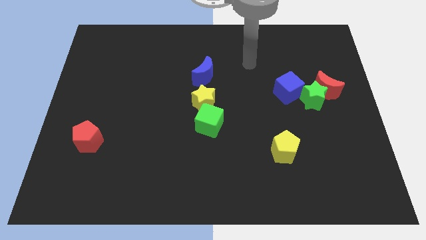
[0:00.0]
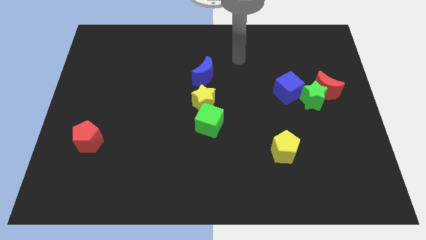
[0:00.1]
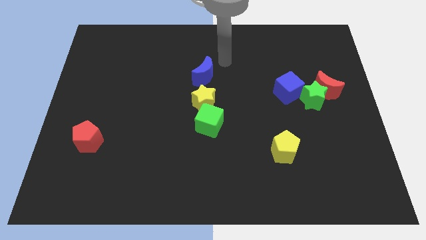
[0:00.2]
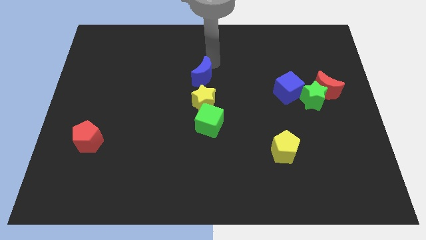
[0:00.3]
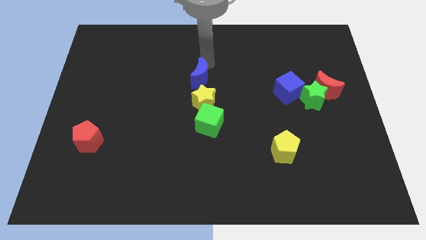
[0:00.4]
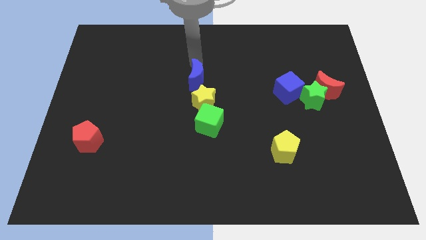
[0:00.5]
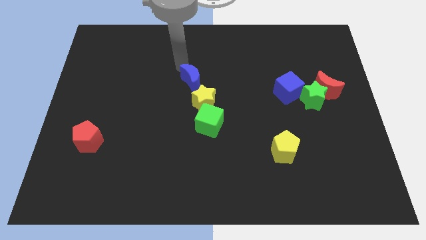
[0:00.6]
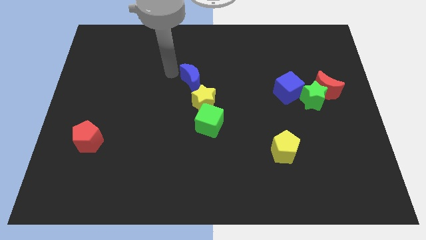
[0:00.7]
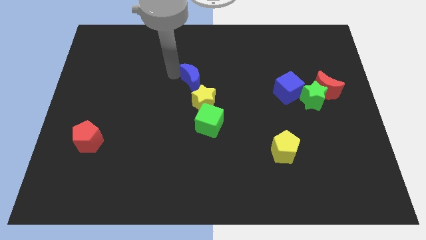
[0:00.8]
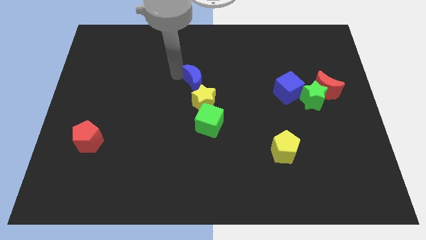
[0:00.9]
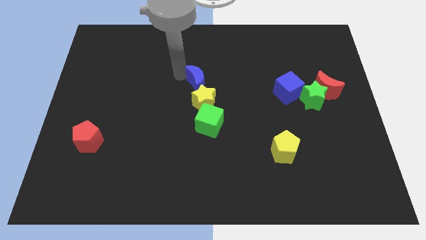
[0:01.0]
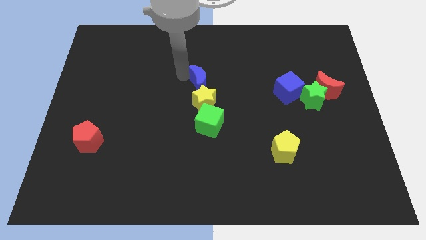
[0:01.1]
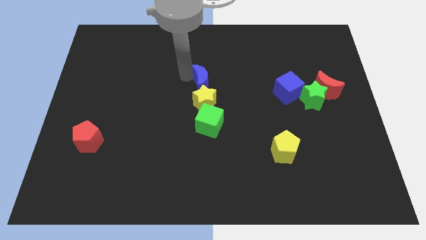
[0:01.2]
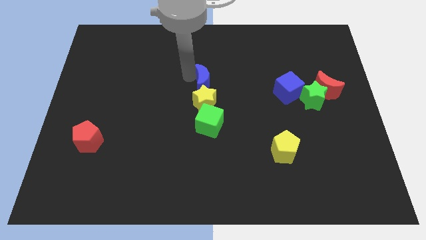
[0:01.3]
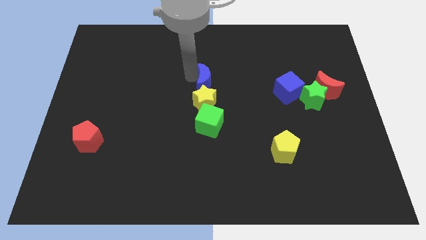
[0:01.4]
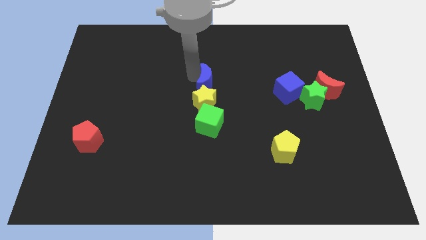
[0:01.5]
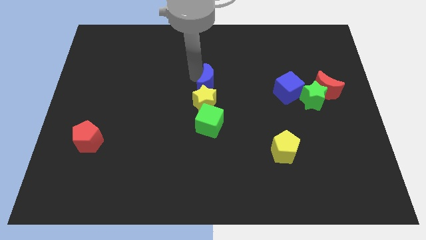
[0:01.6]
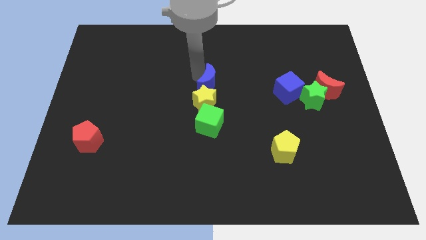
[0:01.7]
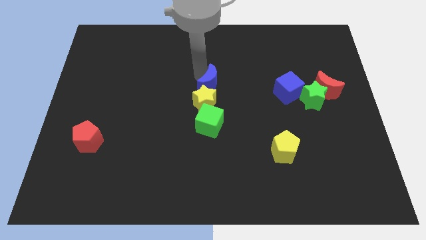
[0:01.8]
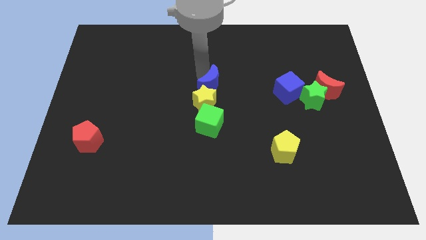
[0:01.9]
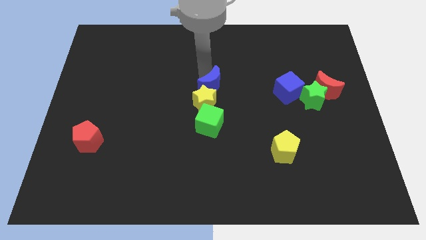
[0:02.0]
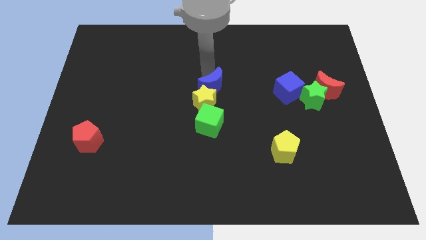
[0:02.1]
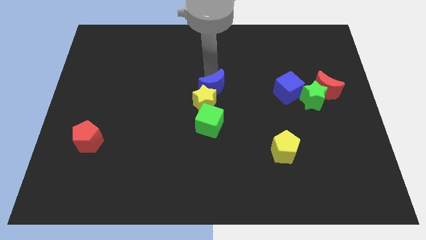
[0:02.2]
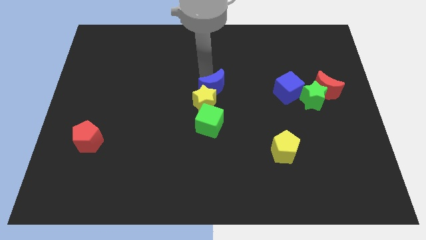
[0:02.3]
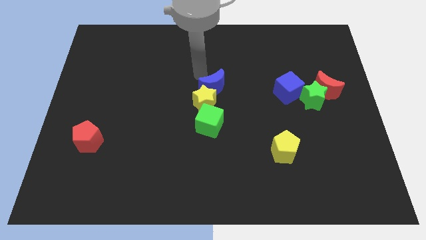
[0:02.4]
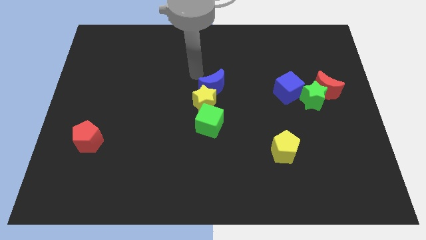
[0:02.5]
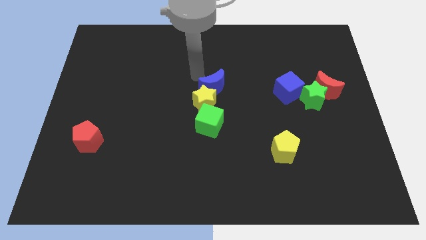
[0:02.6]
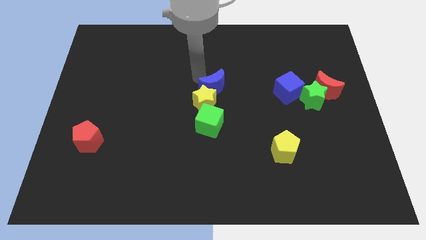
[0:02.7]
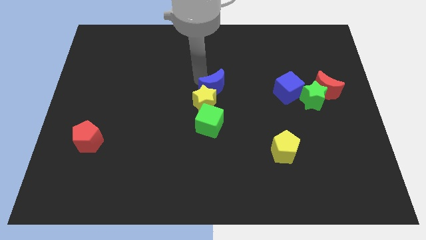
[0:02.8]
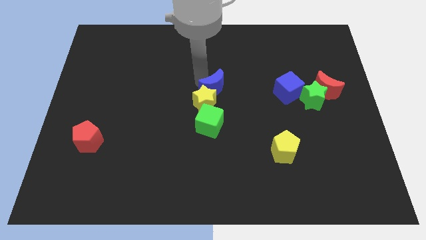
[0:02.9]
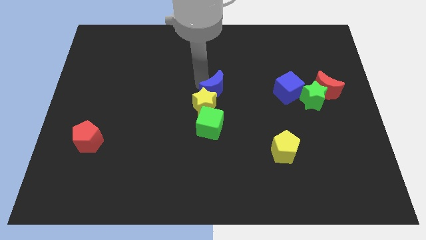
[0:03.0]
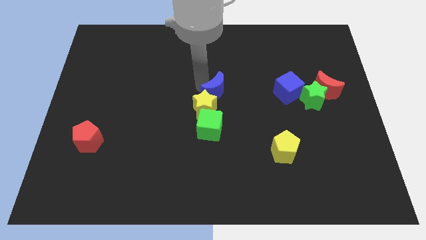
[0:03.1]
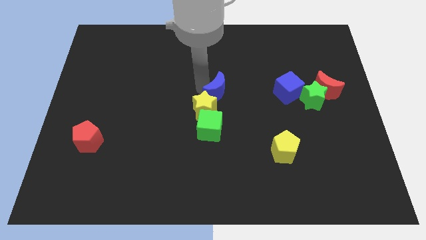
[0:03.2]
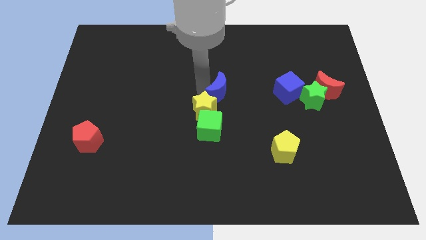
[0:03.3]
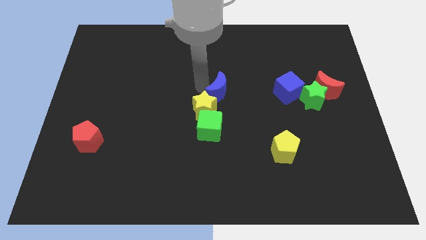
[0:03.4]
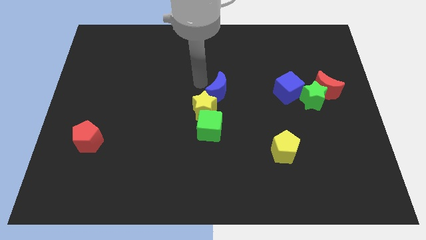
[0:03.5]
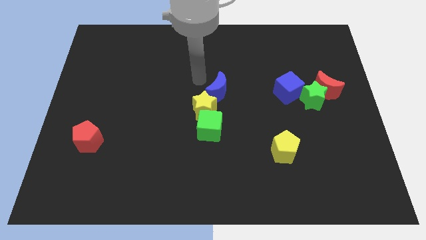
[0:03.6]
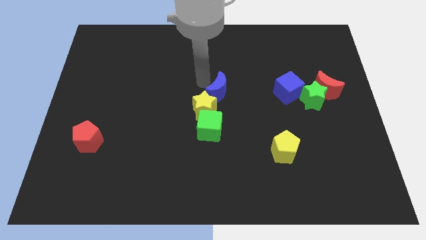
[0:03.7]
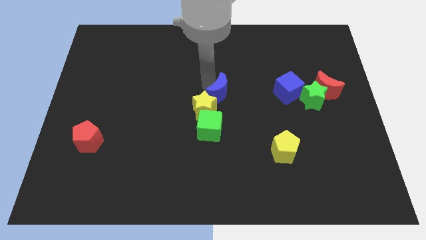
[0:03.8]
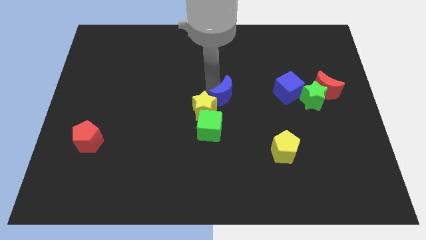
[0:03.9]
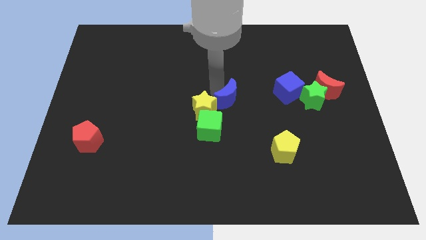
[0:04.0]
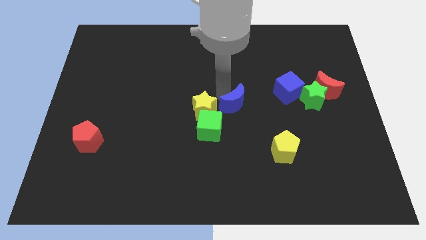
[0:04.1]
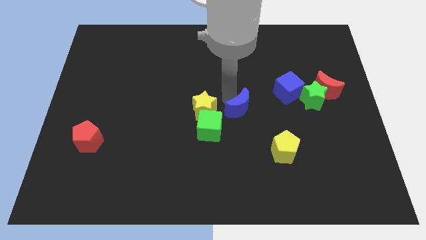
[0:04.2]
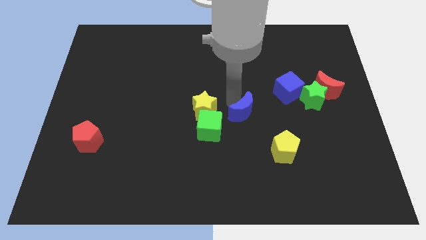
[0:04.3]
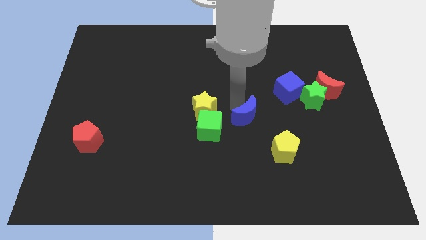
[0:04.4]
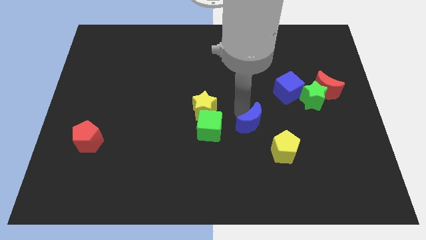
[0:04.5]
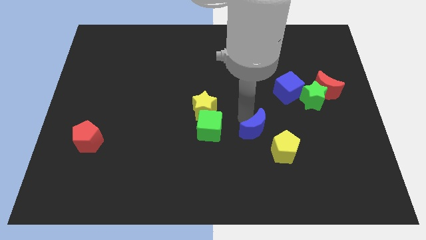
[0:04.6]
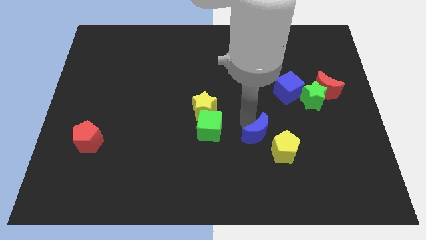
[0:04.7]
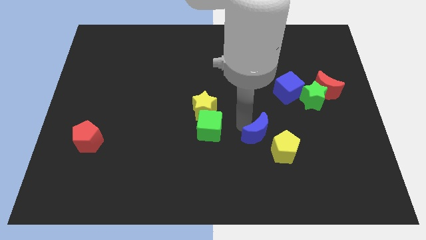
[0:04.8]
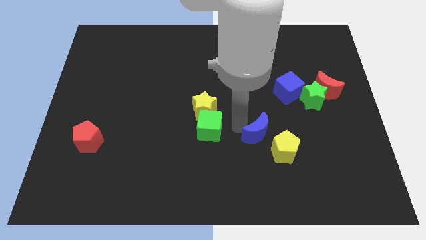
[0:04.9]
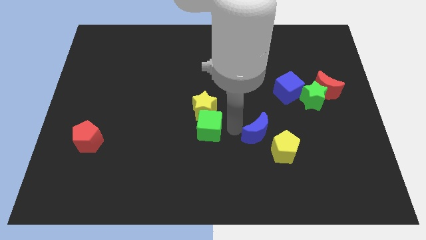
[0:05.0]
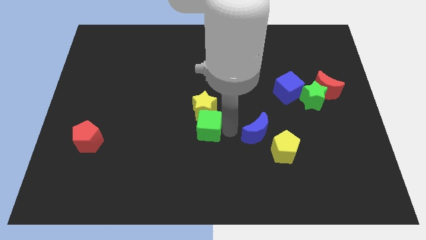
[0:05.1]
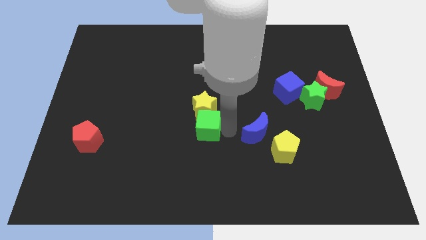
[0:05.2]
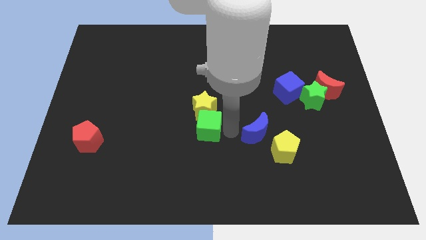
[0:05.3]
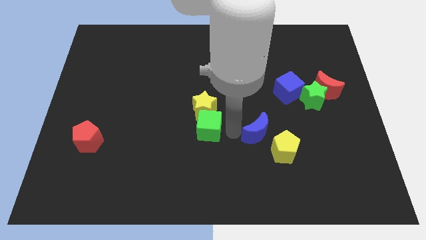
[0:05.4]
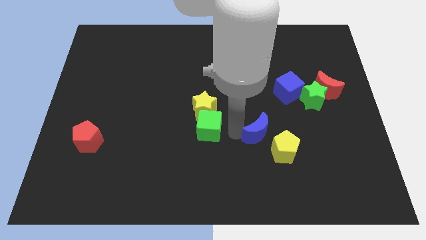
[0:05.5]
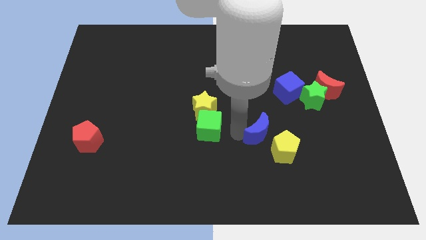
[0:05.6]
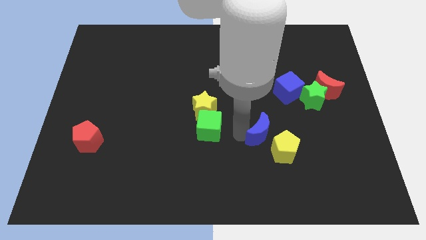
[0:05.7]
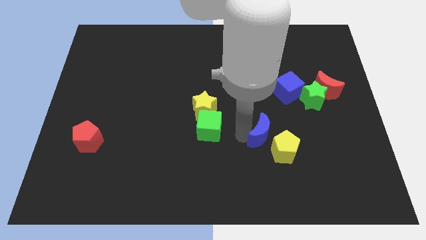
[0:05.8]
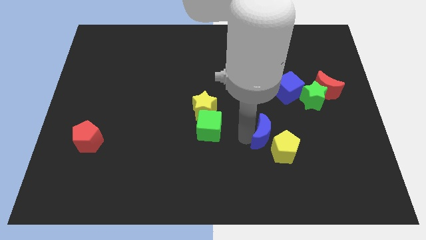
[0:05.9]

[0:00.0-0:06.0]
push the blue moon towards the yellow pentagon

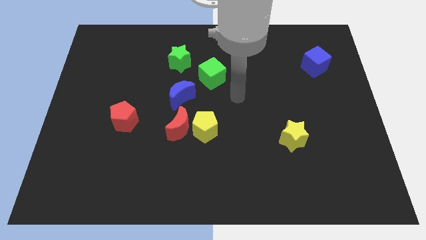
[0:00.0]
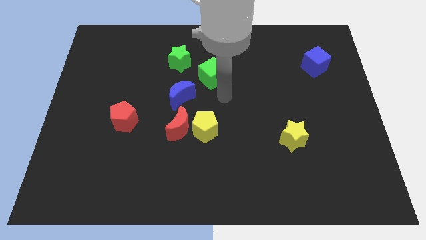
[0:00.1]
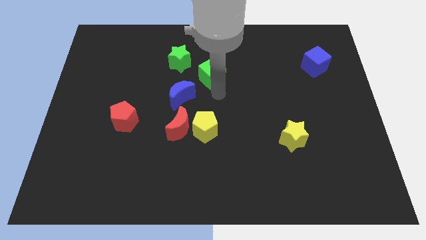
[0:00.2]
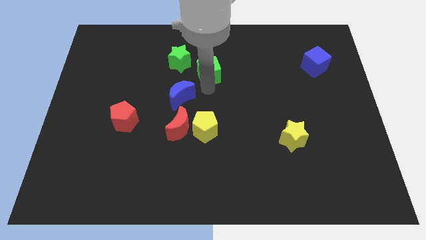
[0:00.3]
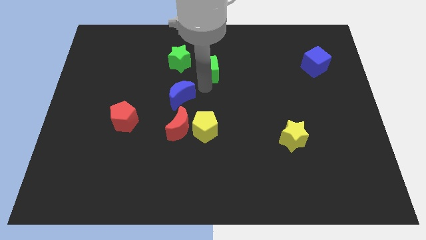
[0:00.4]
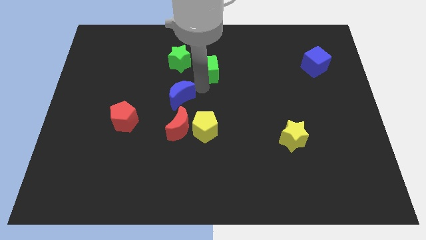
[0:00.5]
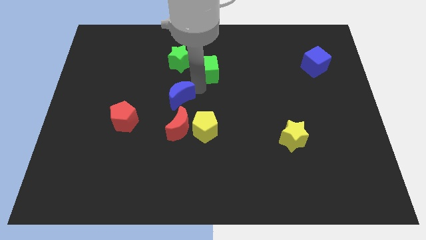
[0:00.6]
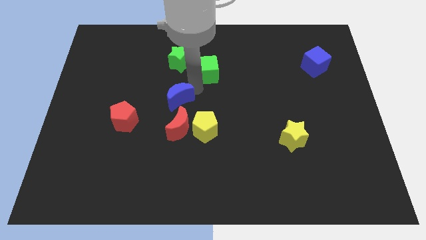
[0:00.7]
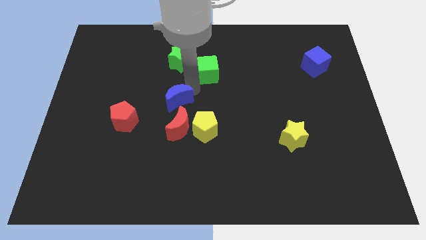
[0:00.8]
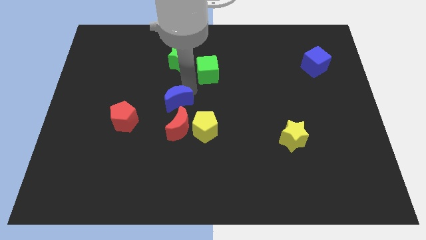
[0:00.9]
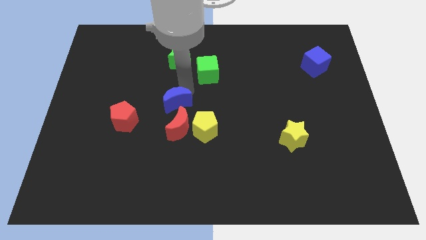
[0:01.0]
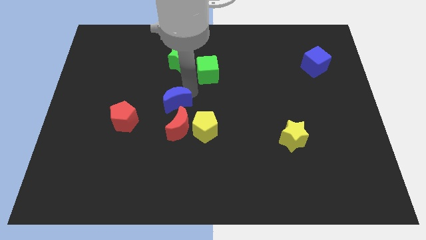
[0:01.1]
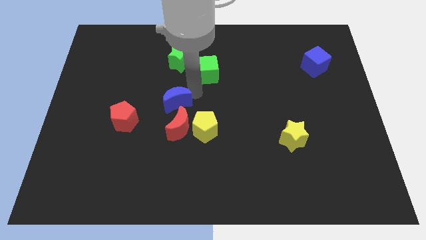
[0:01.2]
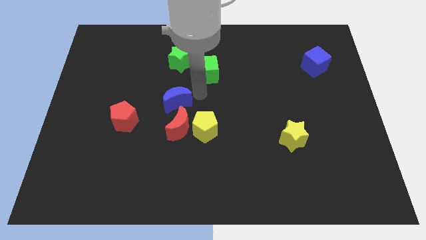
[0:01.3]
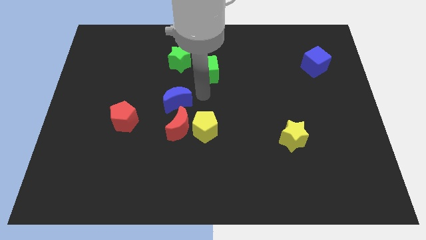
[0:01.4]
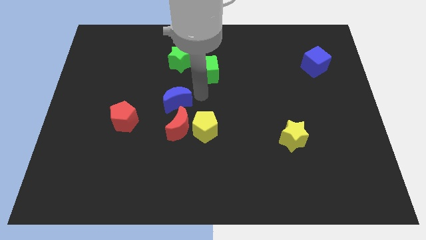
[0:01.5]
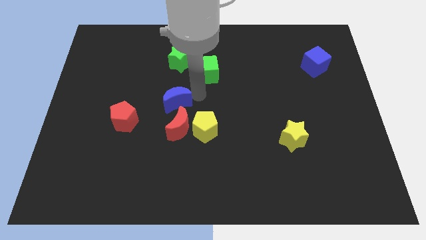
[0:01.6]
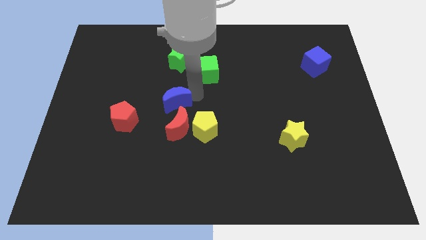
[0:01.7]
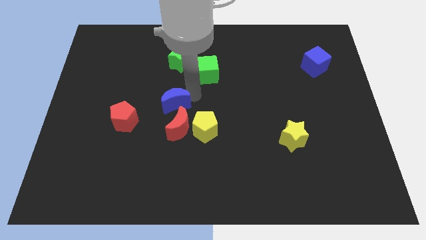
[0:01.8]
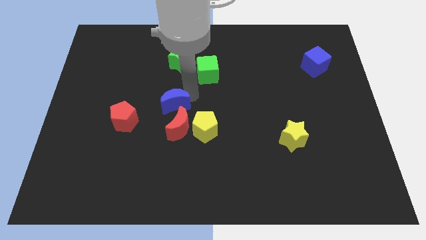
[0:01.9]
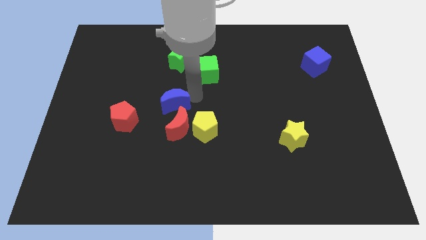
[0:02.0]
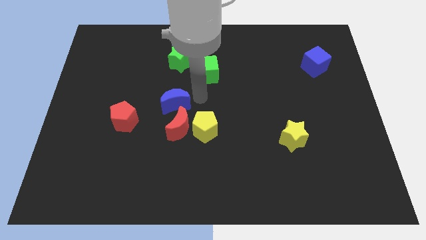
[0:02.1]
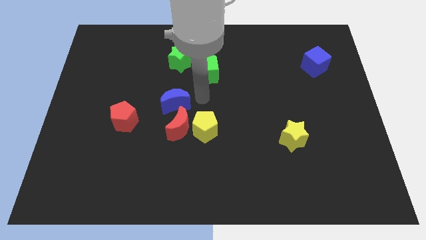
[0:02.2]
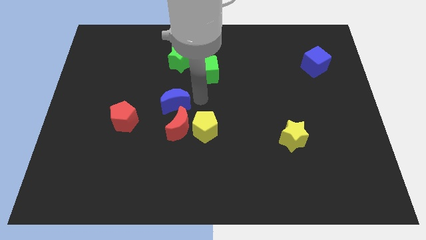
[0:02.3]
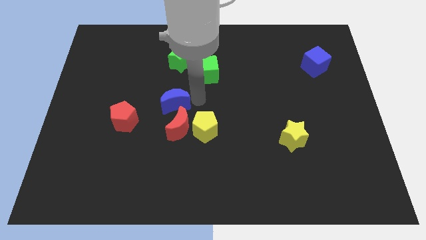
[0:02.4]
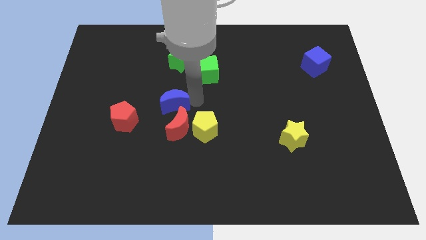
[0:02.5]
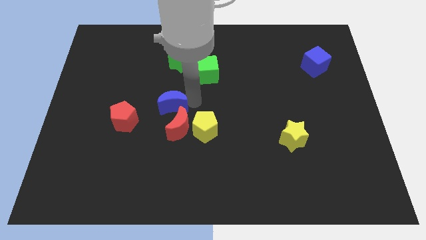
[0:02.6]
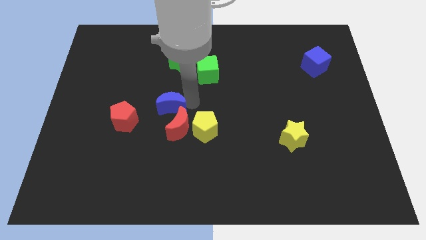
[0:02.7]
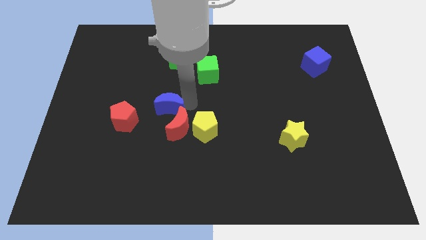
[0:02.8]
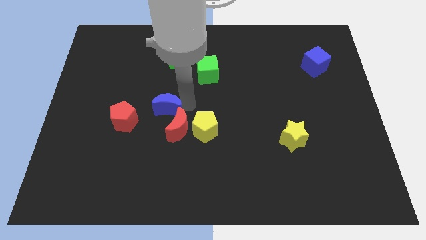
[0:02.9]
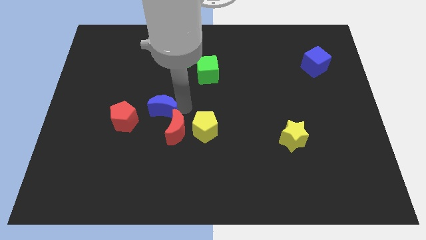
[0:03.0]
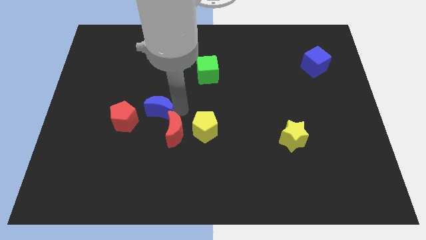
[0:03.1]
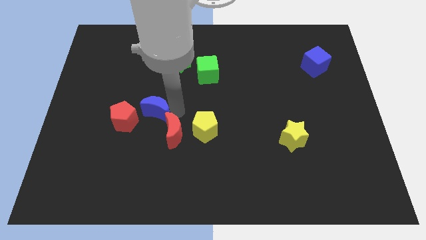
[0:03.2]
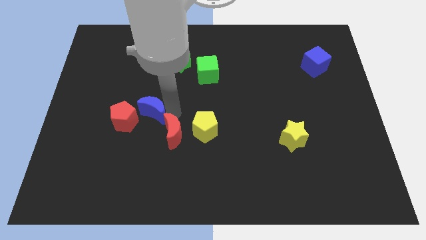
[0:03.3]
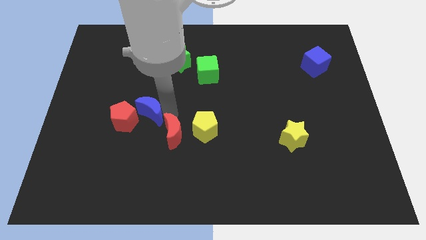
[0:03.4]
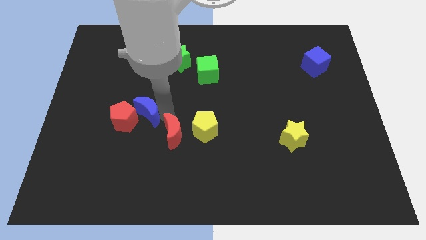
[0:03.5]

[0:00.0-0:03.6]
push the blue moon towards the red pentagon
